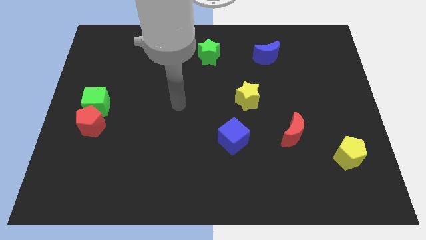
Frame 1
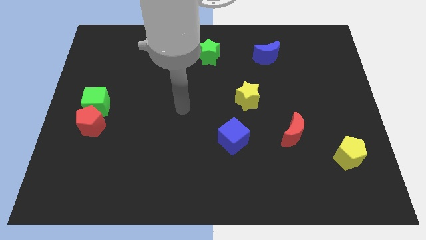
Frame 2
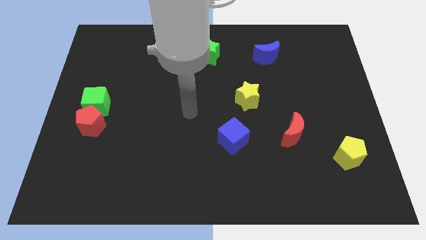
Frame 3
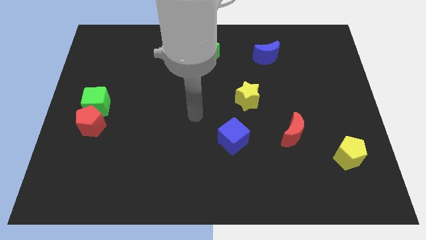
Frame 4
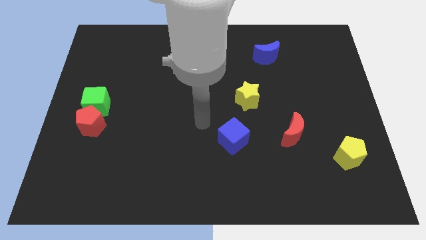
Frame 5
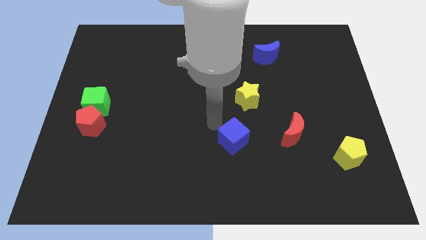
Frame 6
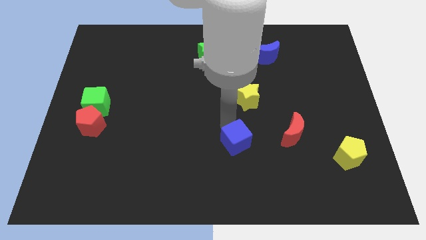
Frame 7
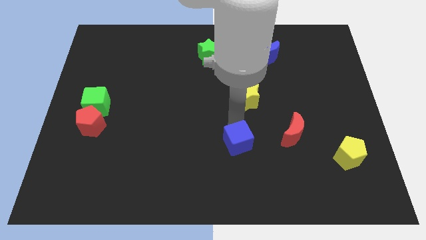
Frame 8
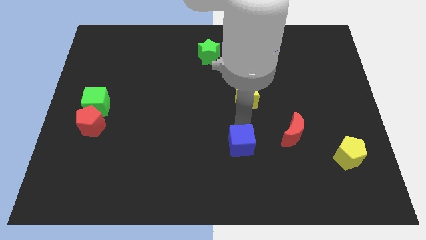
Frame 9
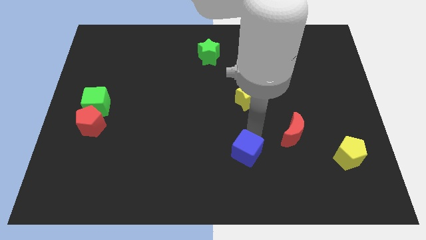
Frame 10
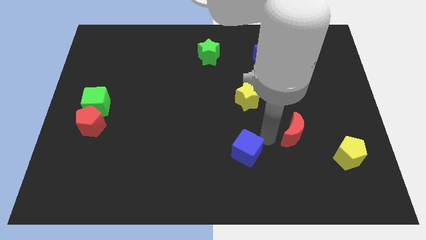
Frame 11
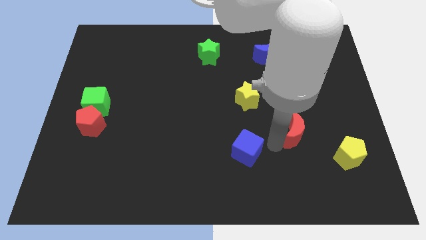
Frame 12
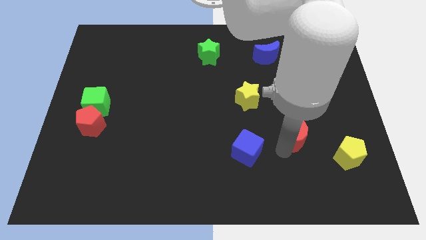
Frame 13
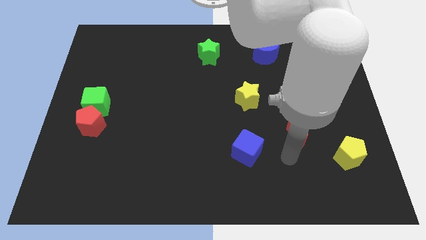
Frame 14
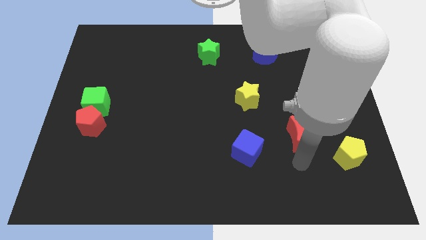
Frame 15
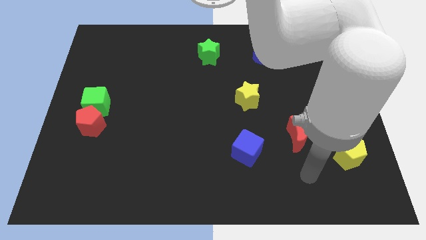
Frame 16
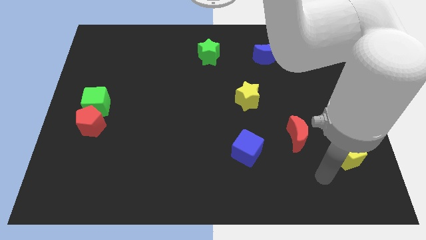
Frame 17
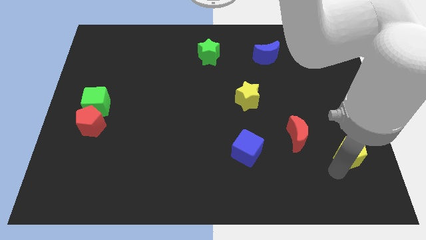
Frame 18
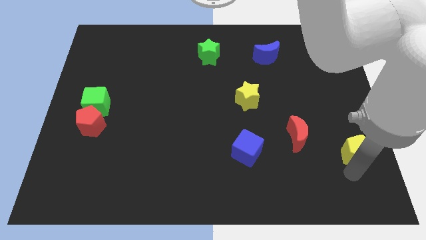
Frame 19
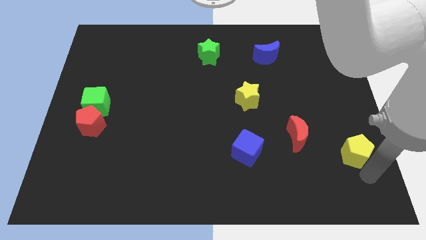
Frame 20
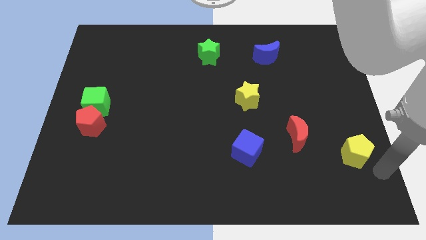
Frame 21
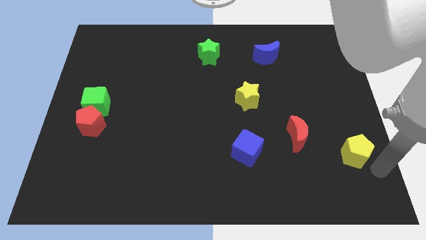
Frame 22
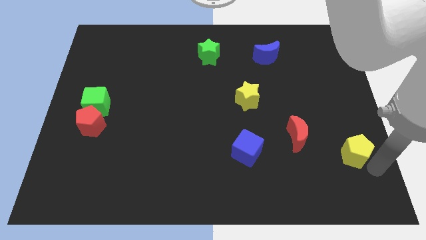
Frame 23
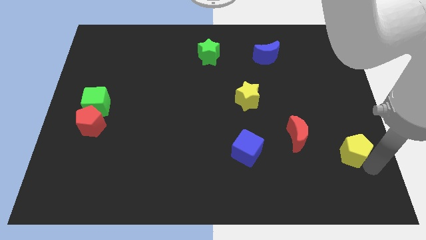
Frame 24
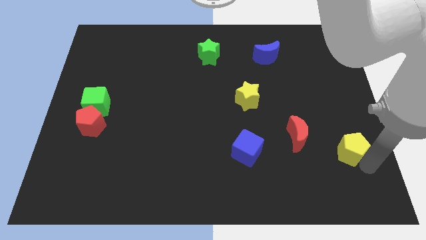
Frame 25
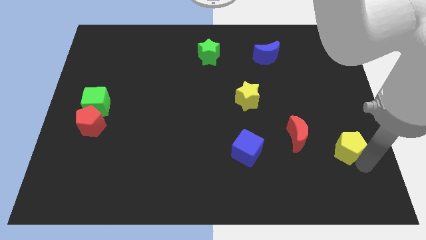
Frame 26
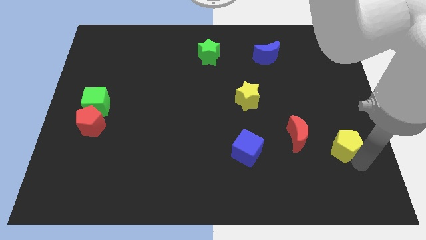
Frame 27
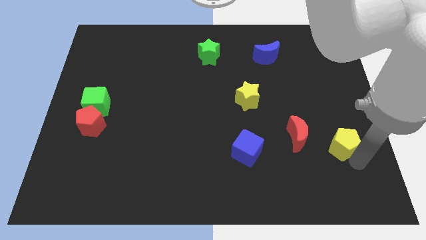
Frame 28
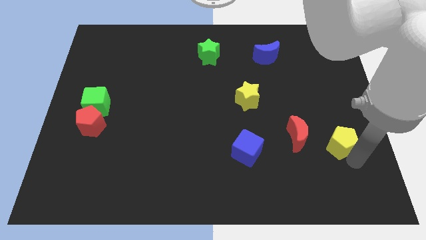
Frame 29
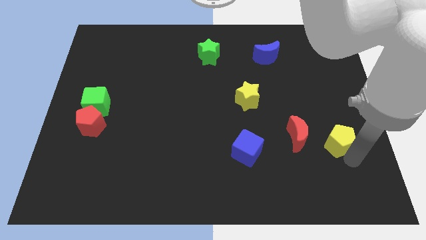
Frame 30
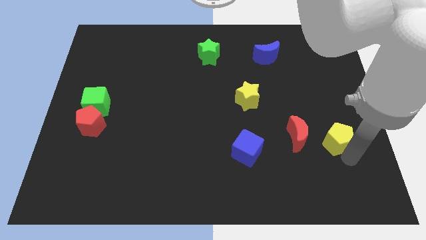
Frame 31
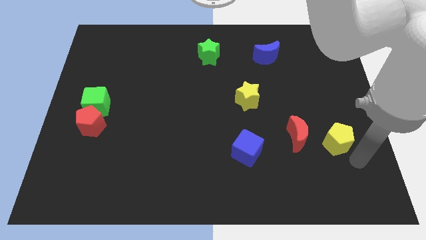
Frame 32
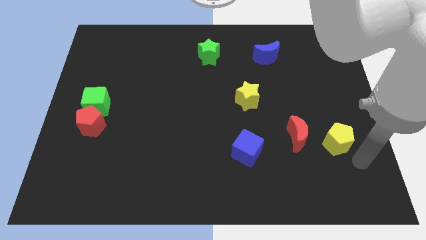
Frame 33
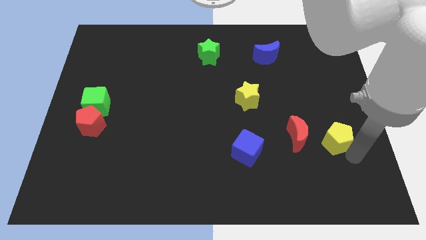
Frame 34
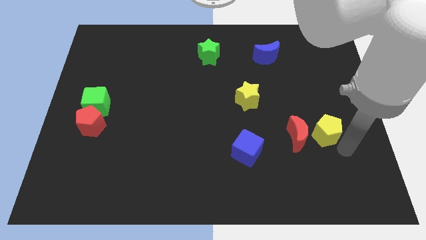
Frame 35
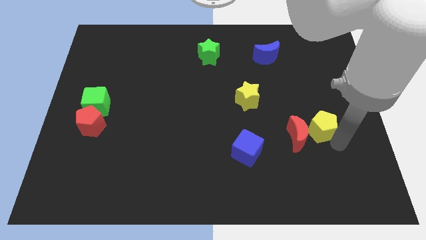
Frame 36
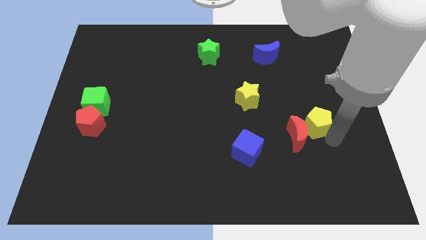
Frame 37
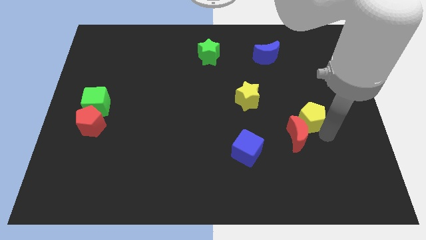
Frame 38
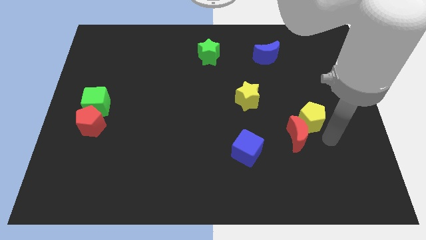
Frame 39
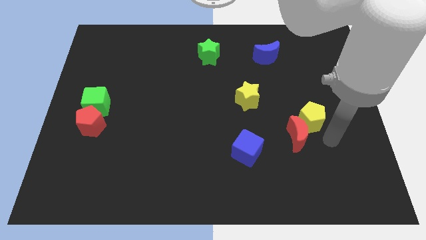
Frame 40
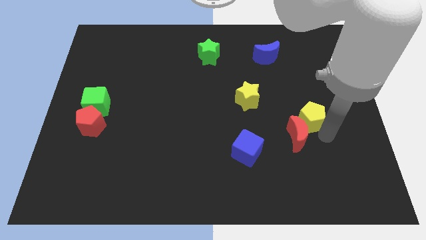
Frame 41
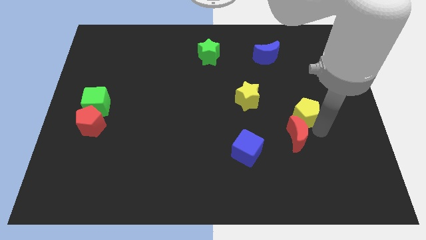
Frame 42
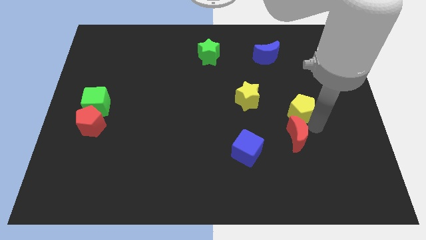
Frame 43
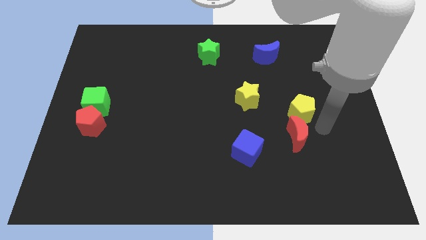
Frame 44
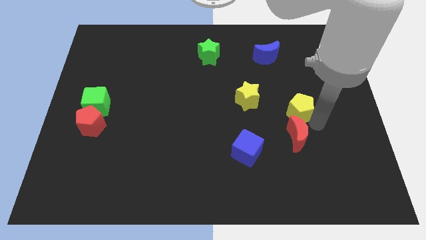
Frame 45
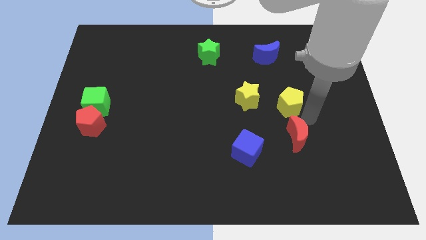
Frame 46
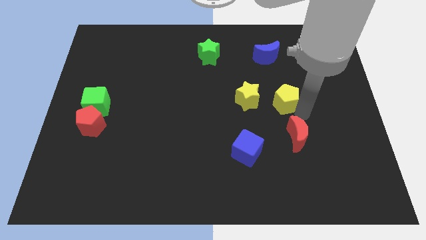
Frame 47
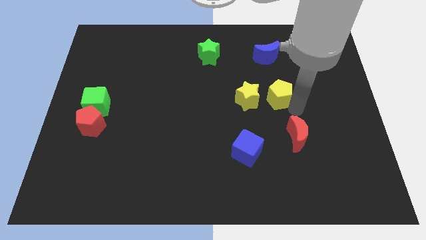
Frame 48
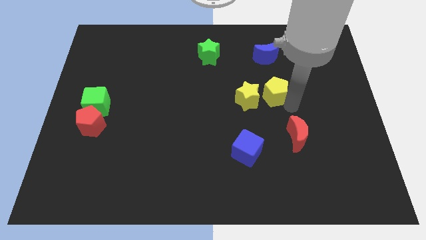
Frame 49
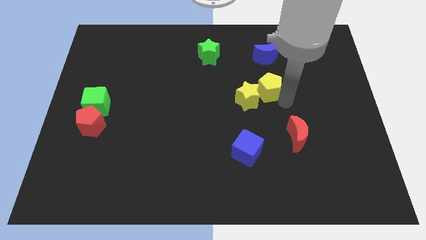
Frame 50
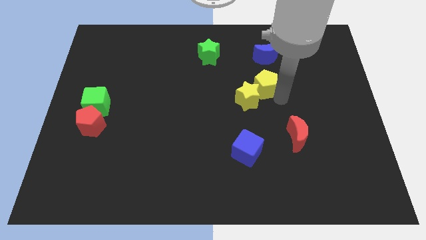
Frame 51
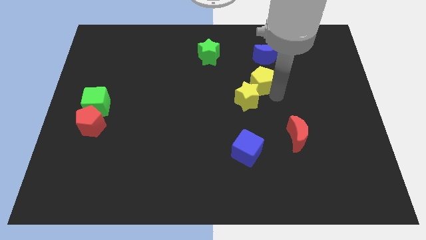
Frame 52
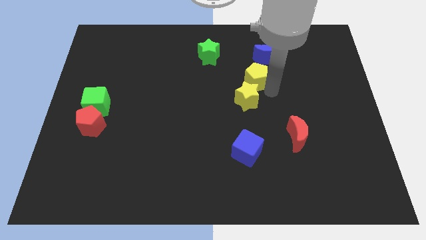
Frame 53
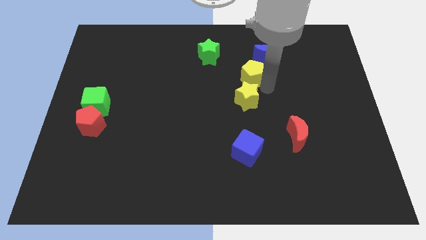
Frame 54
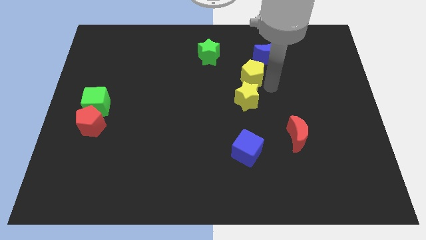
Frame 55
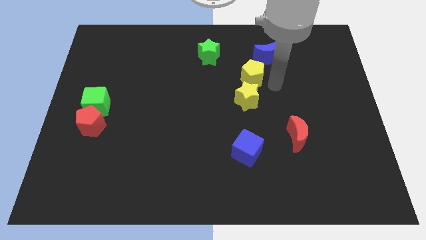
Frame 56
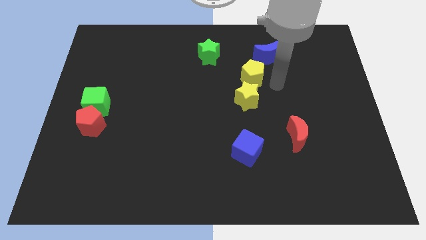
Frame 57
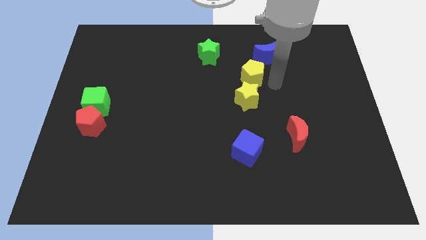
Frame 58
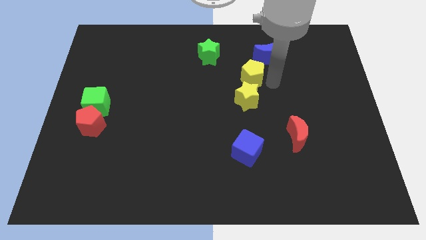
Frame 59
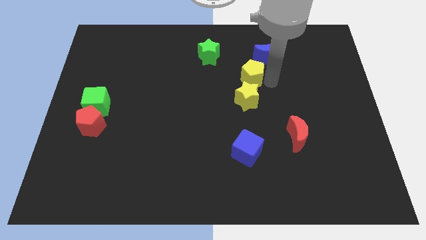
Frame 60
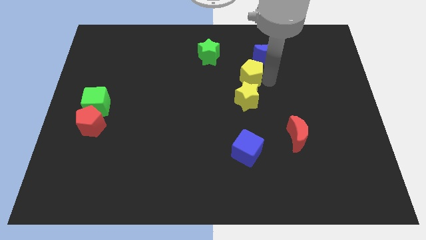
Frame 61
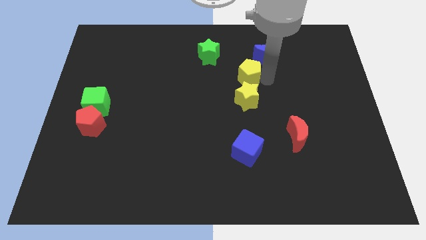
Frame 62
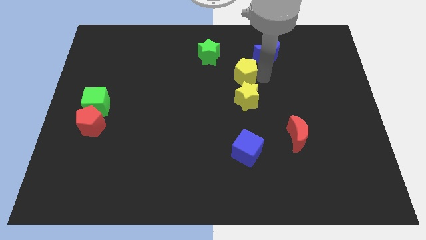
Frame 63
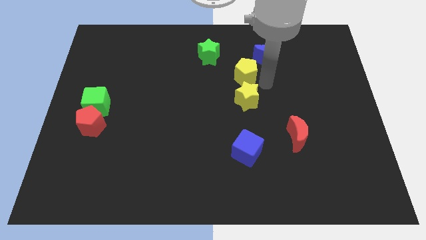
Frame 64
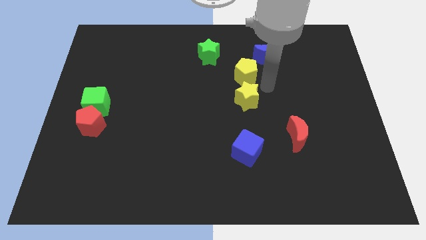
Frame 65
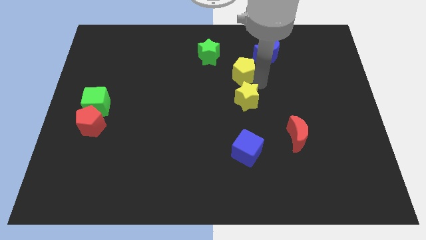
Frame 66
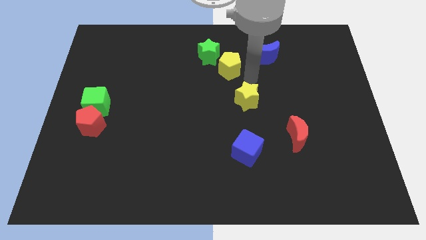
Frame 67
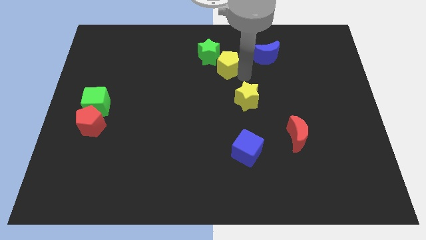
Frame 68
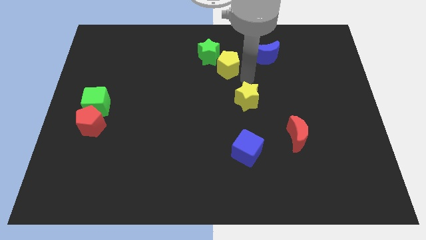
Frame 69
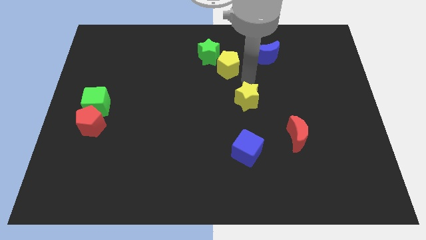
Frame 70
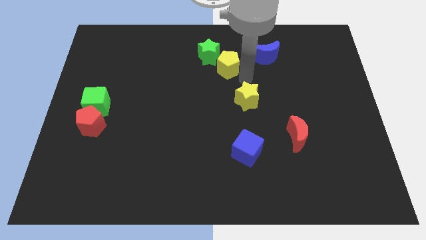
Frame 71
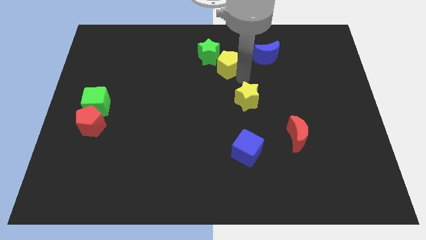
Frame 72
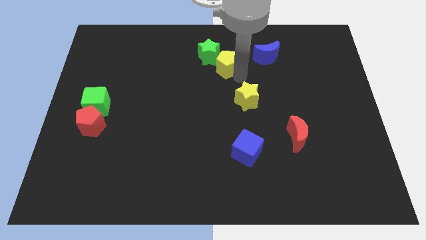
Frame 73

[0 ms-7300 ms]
move the yellow pentagon towards the green star
